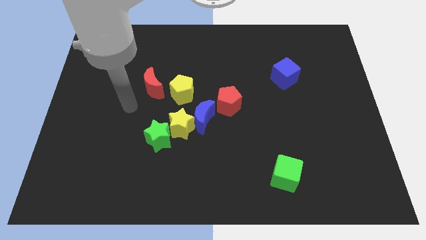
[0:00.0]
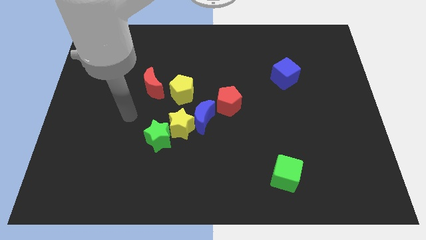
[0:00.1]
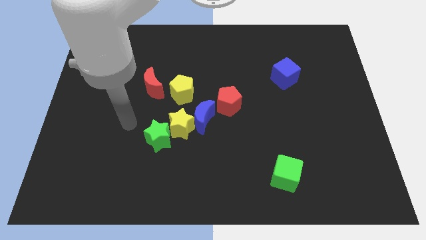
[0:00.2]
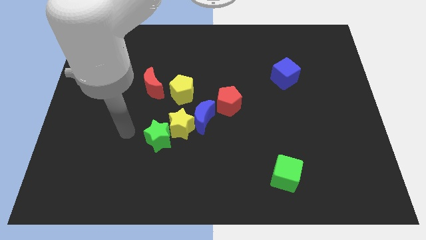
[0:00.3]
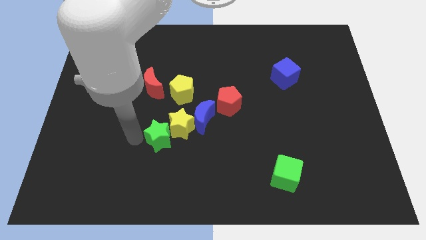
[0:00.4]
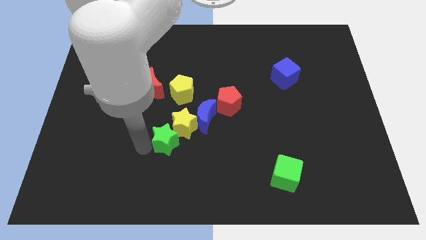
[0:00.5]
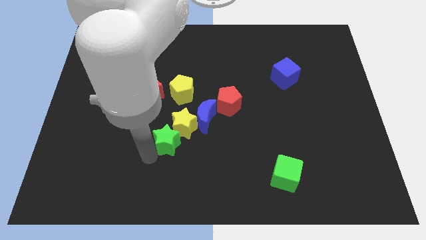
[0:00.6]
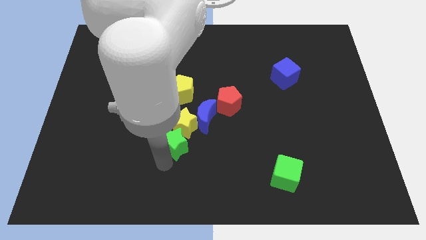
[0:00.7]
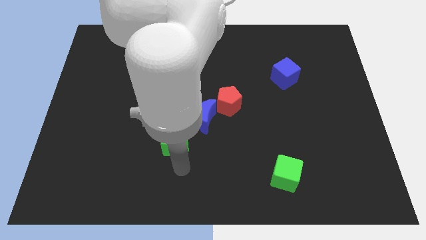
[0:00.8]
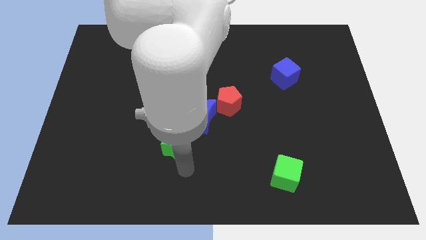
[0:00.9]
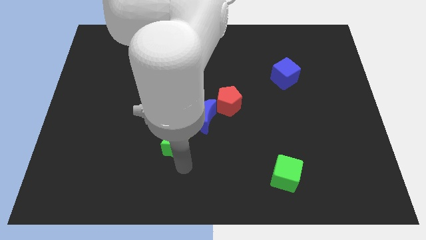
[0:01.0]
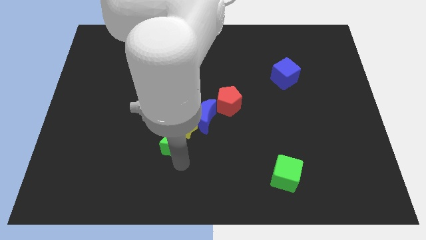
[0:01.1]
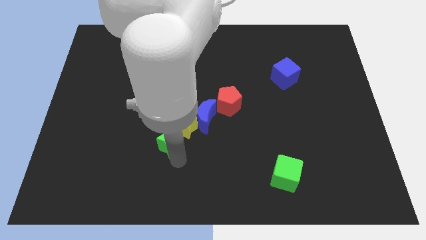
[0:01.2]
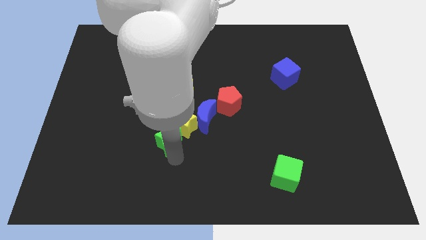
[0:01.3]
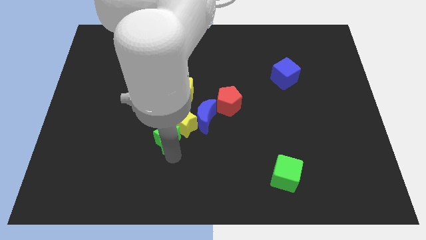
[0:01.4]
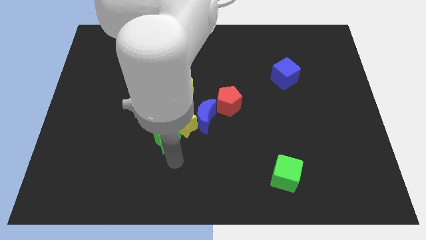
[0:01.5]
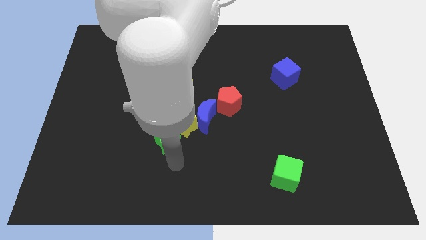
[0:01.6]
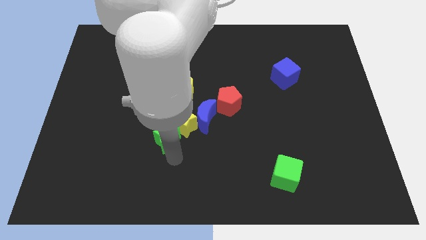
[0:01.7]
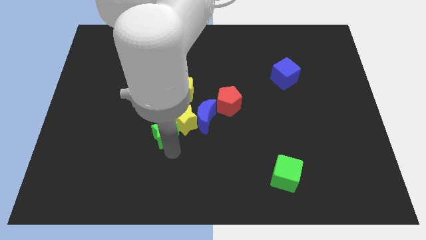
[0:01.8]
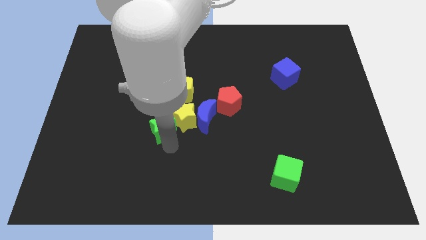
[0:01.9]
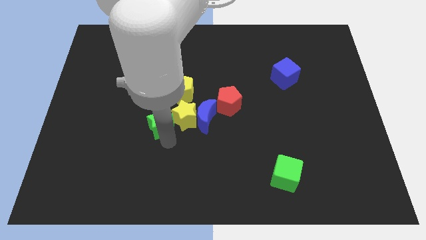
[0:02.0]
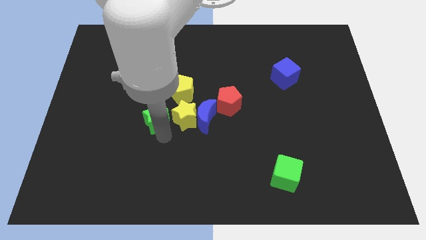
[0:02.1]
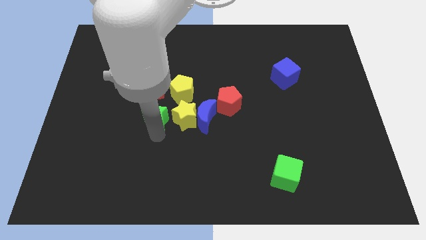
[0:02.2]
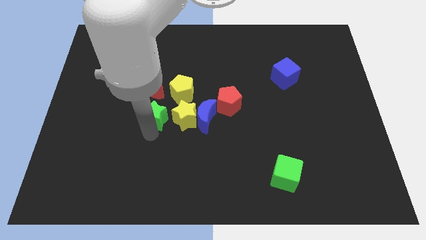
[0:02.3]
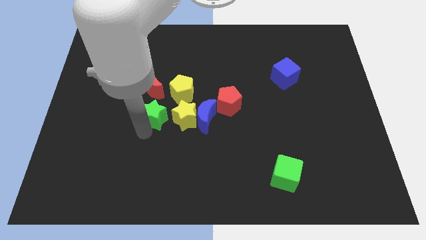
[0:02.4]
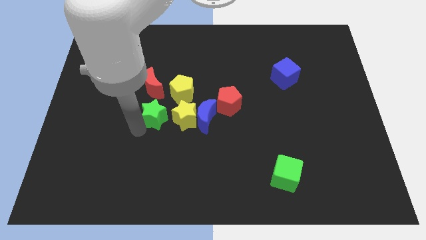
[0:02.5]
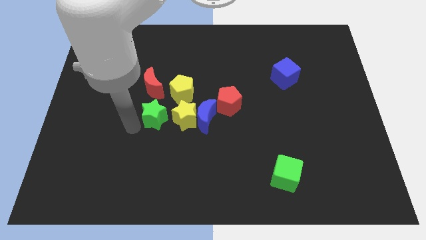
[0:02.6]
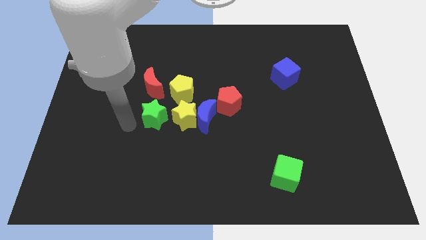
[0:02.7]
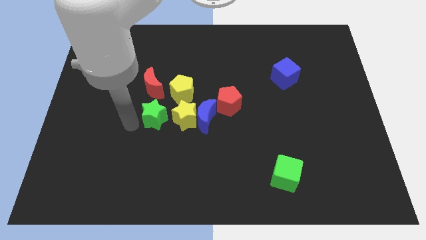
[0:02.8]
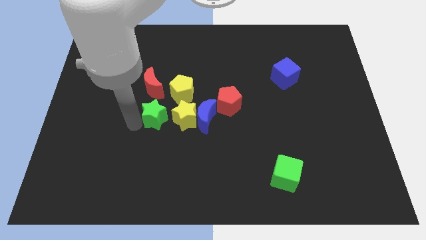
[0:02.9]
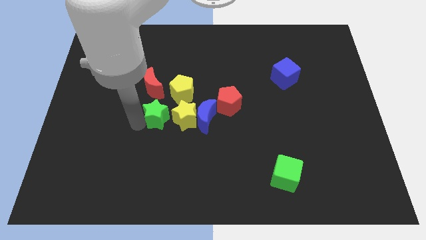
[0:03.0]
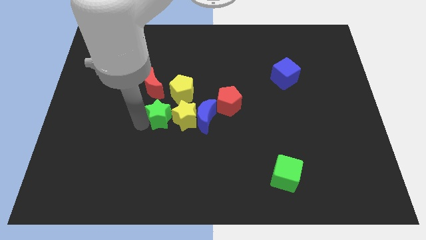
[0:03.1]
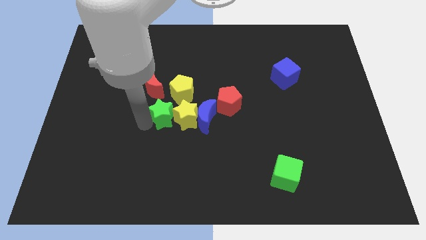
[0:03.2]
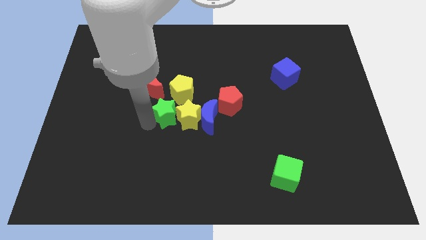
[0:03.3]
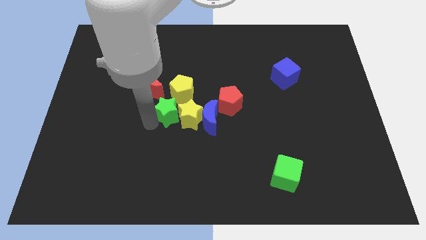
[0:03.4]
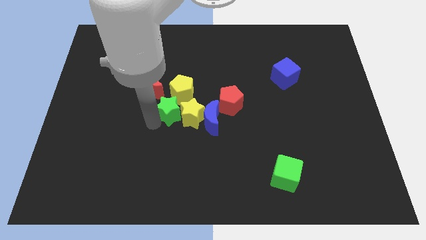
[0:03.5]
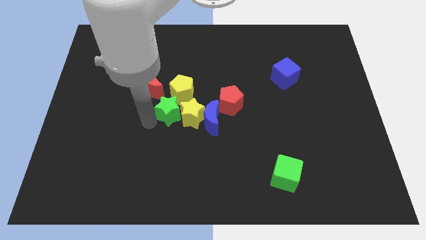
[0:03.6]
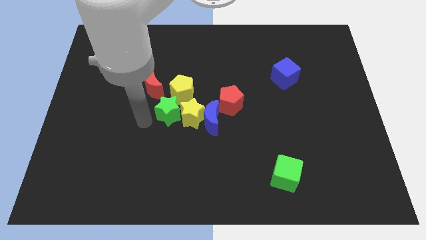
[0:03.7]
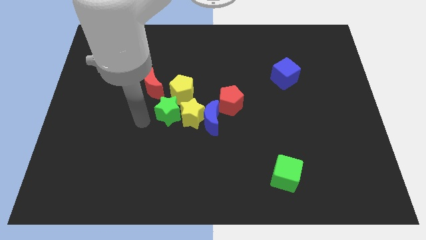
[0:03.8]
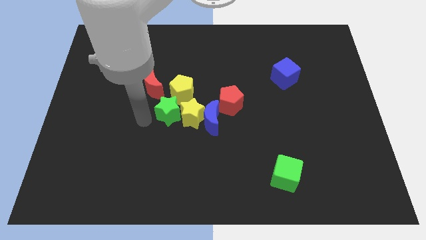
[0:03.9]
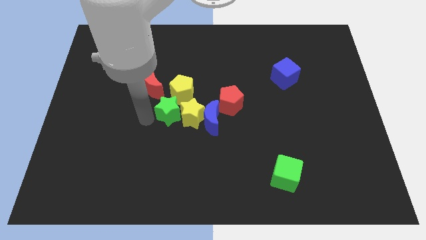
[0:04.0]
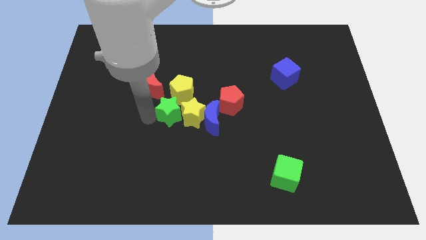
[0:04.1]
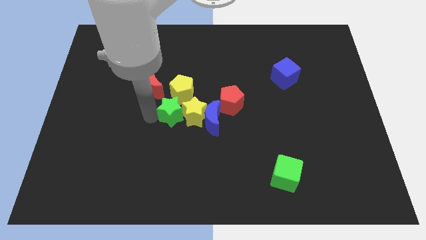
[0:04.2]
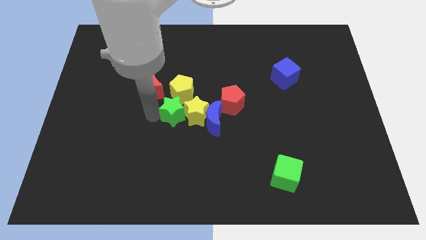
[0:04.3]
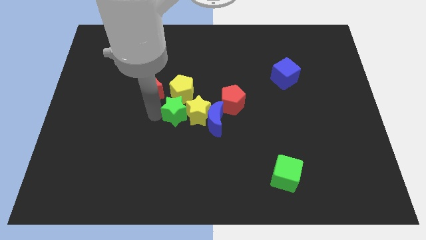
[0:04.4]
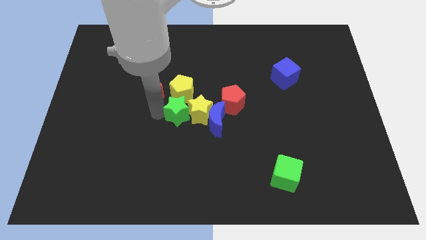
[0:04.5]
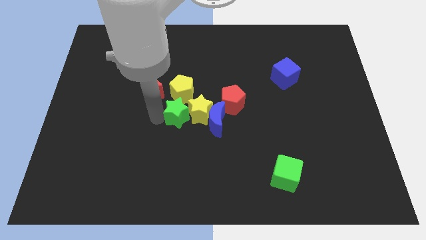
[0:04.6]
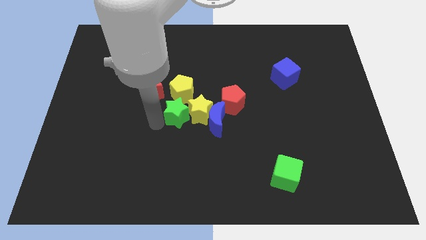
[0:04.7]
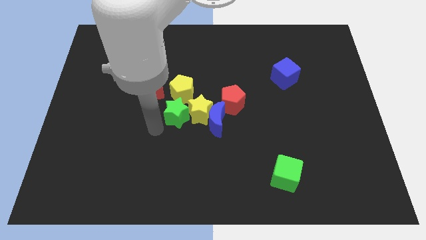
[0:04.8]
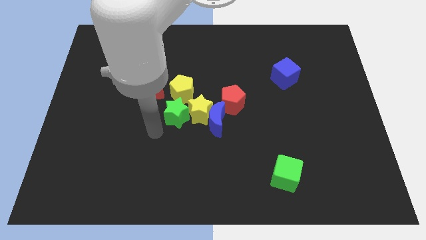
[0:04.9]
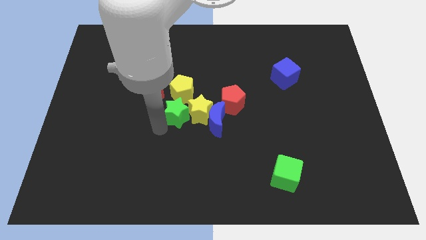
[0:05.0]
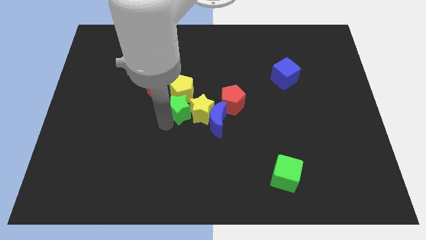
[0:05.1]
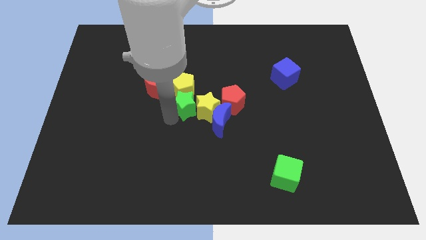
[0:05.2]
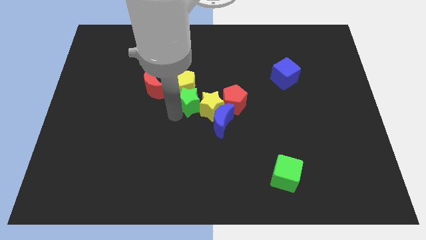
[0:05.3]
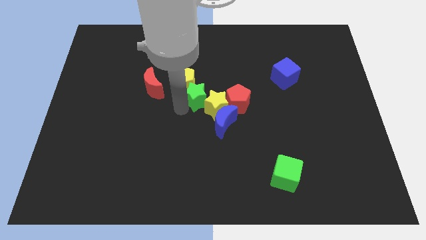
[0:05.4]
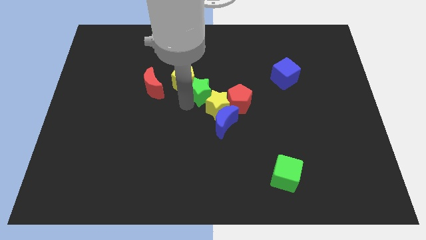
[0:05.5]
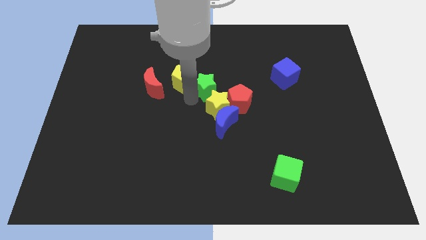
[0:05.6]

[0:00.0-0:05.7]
put the green star above the blue moon

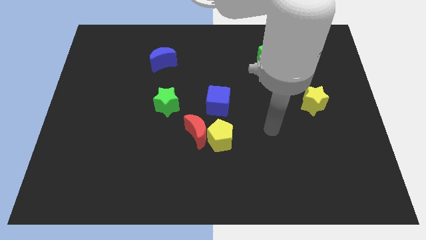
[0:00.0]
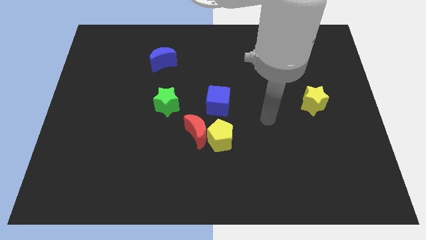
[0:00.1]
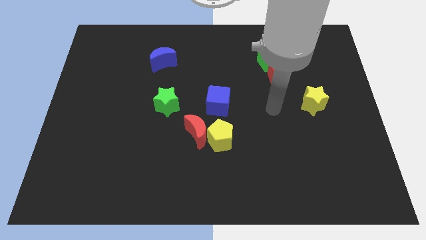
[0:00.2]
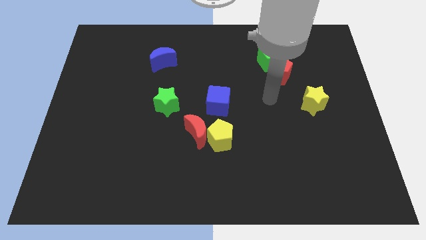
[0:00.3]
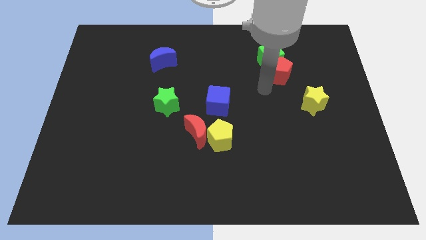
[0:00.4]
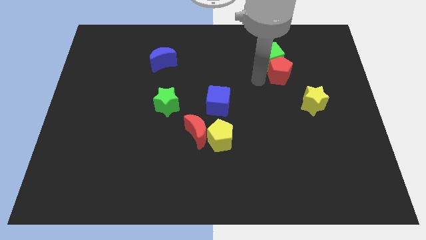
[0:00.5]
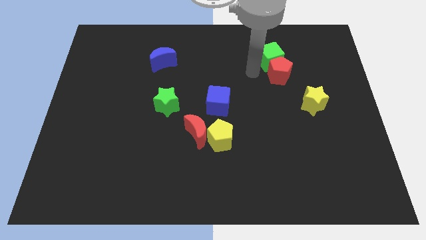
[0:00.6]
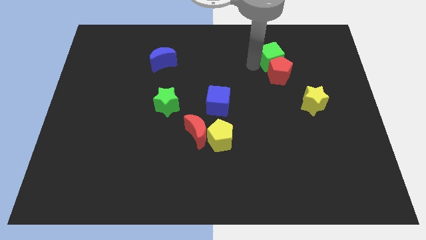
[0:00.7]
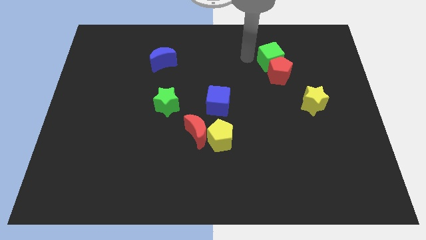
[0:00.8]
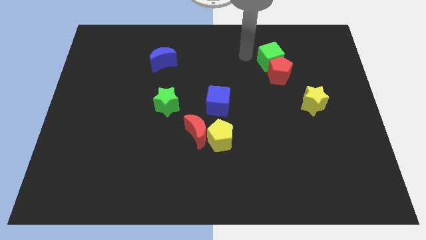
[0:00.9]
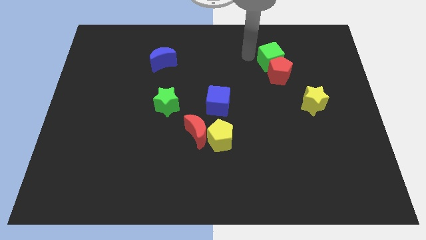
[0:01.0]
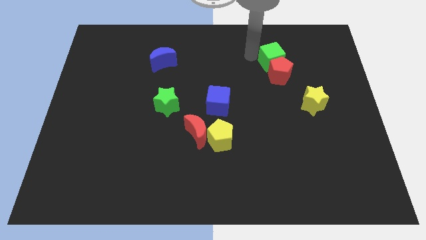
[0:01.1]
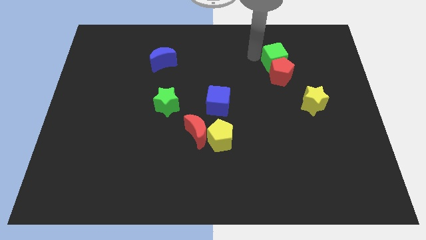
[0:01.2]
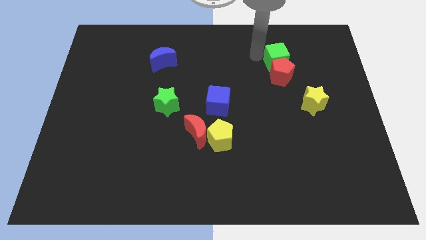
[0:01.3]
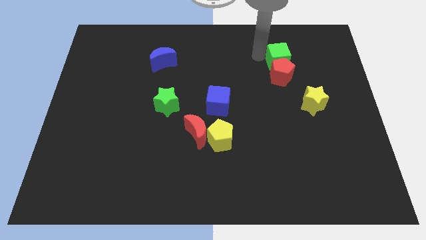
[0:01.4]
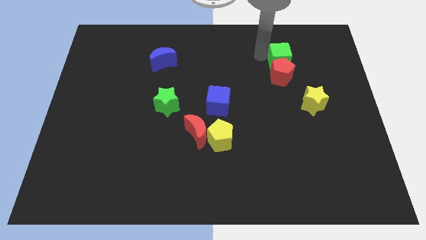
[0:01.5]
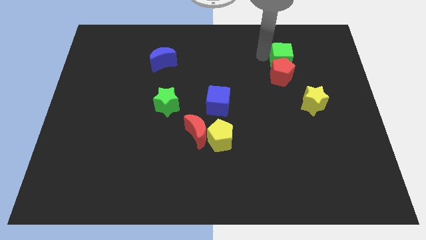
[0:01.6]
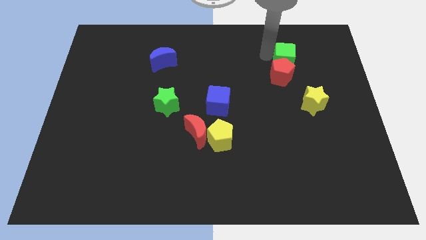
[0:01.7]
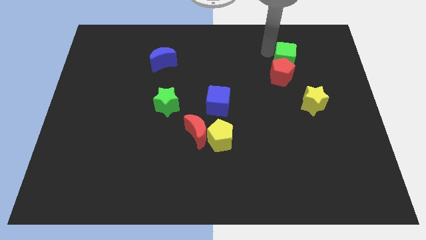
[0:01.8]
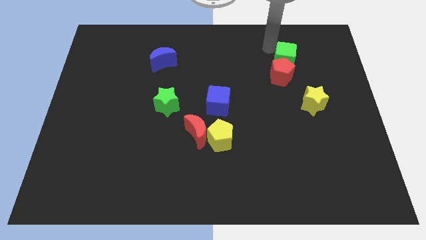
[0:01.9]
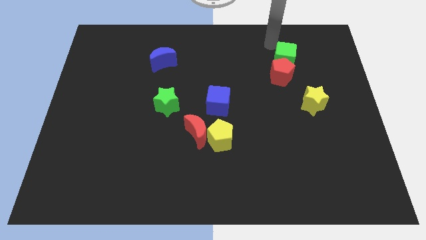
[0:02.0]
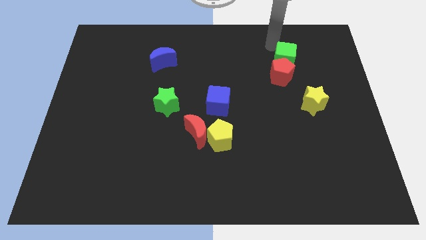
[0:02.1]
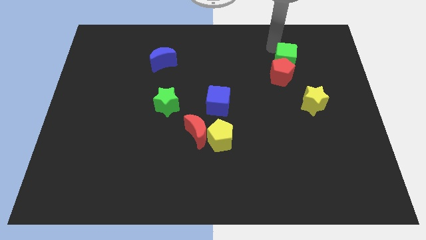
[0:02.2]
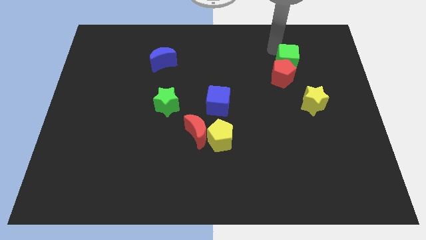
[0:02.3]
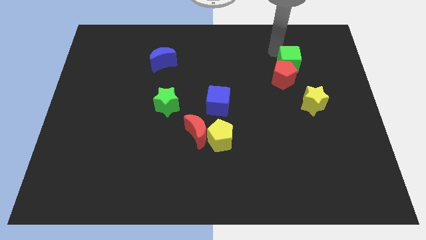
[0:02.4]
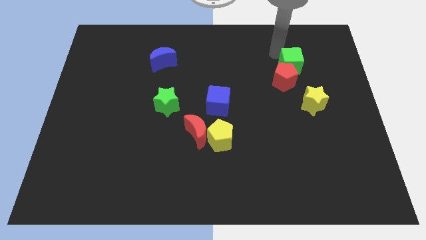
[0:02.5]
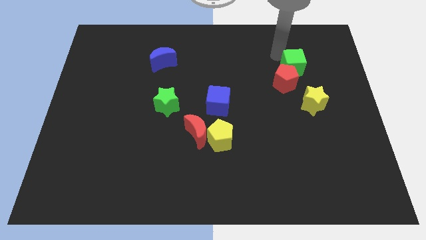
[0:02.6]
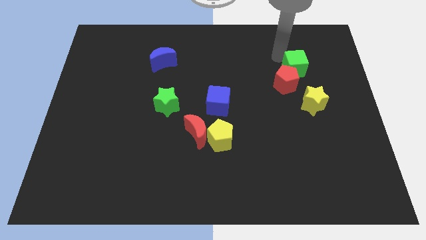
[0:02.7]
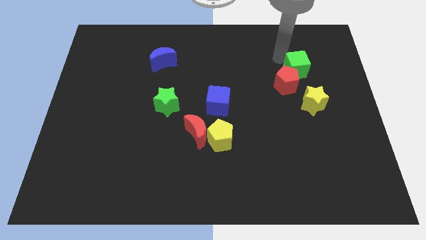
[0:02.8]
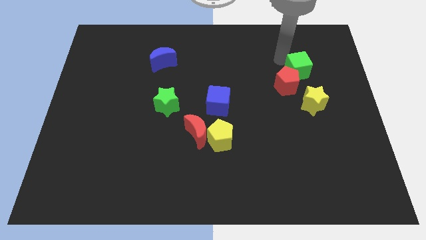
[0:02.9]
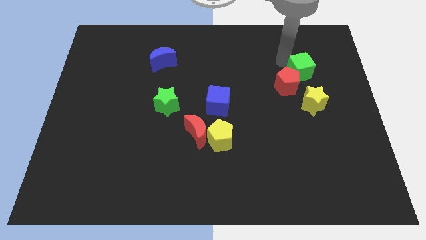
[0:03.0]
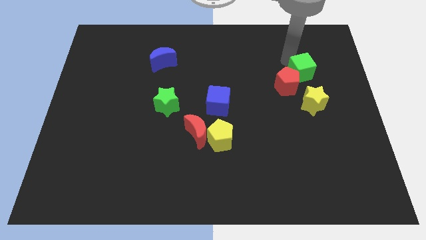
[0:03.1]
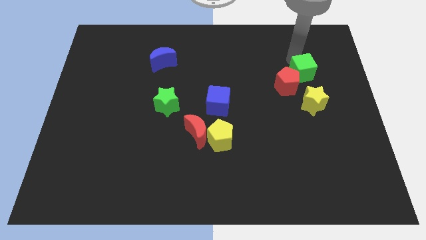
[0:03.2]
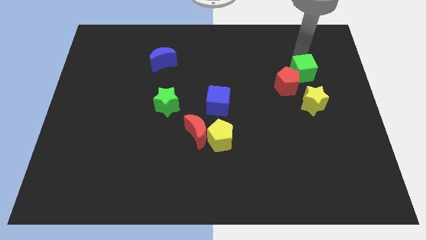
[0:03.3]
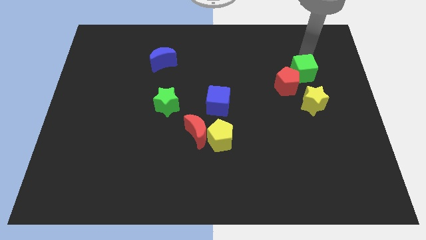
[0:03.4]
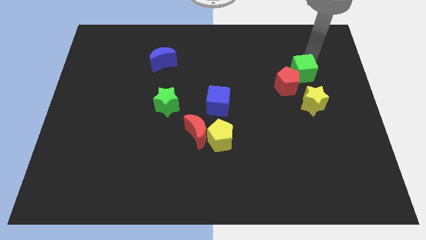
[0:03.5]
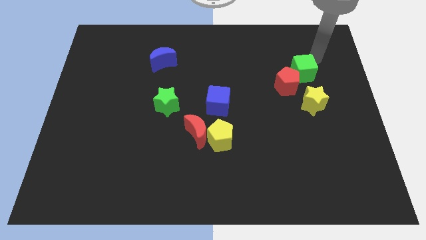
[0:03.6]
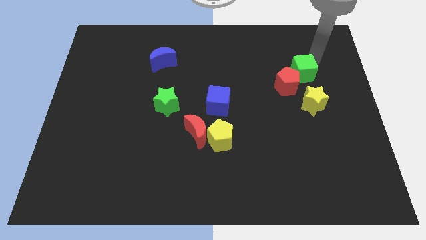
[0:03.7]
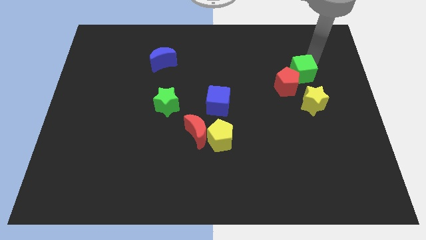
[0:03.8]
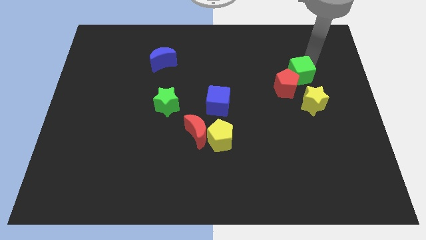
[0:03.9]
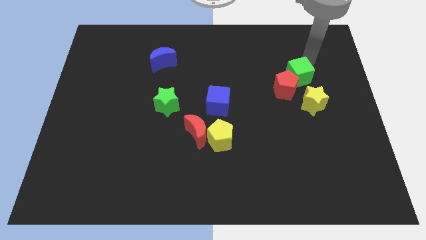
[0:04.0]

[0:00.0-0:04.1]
slide the green cube diagonally up and to the left of the yellow star
